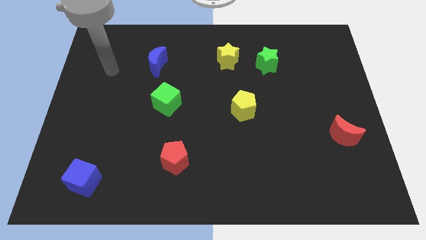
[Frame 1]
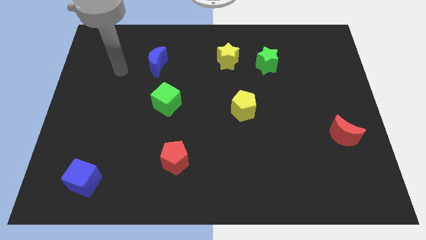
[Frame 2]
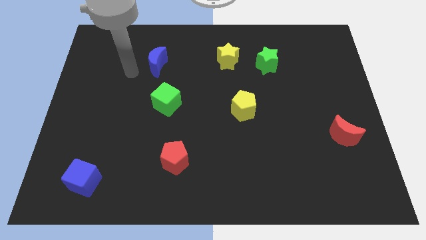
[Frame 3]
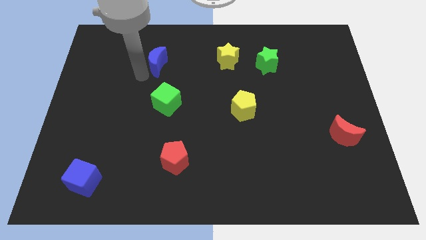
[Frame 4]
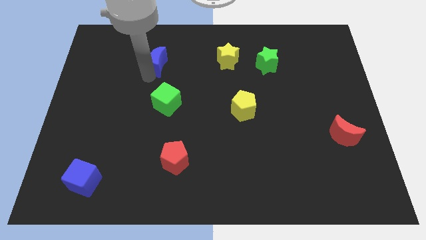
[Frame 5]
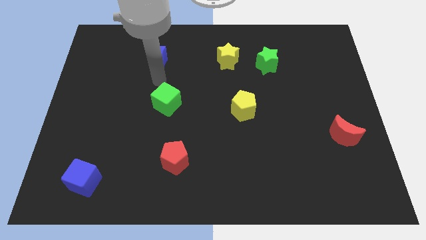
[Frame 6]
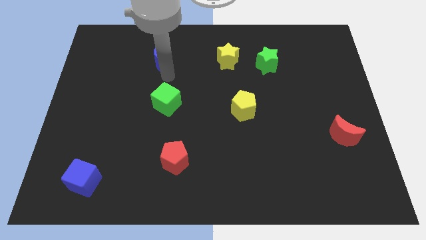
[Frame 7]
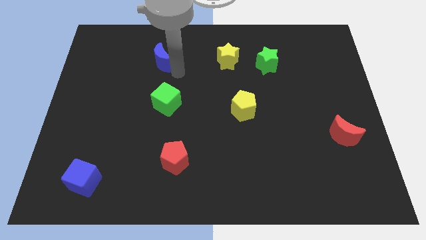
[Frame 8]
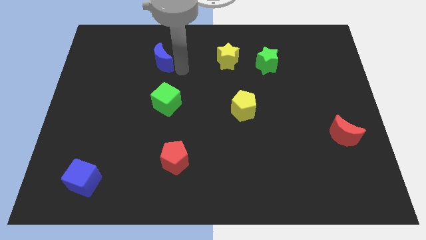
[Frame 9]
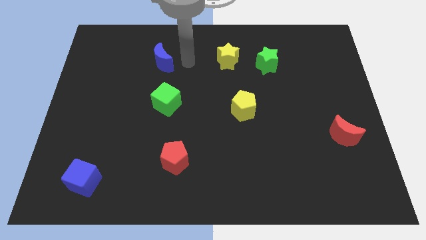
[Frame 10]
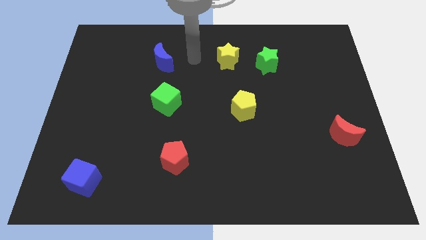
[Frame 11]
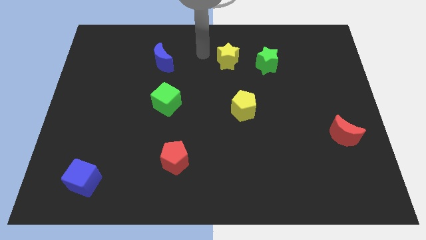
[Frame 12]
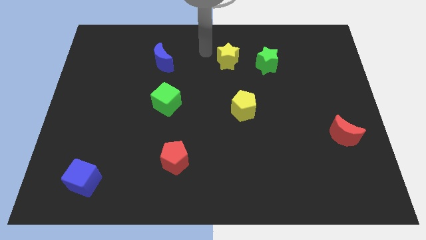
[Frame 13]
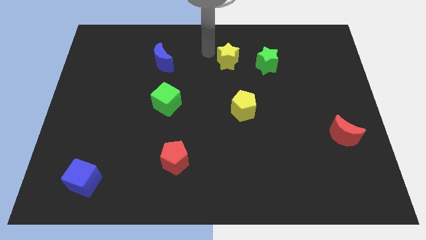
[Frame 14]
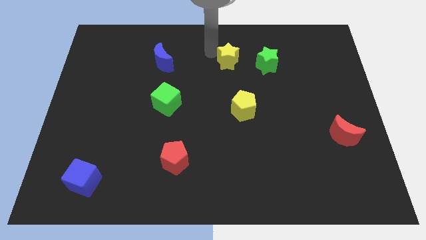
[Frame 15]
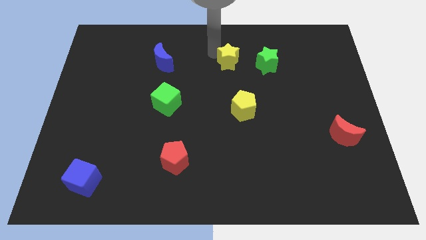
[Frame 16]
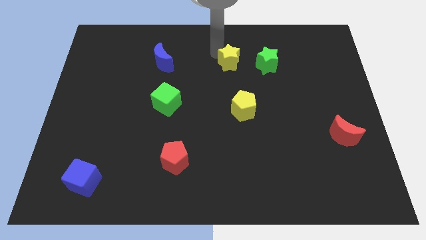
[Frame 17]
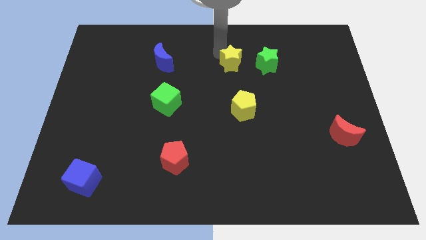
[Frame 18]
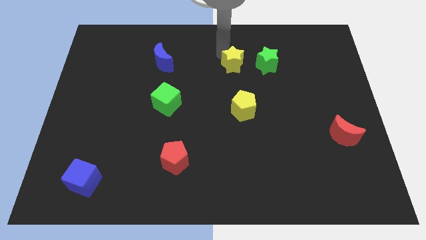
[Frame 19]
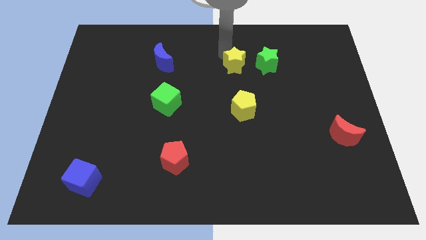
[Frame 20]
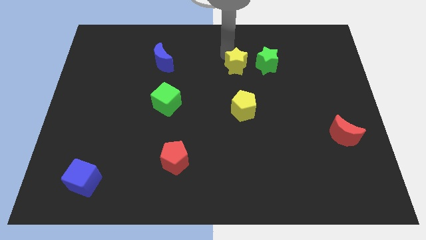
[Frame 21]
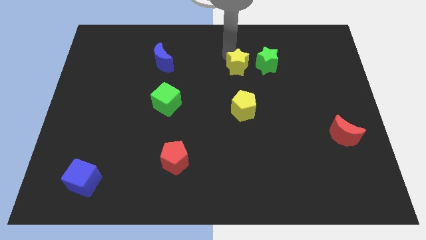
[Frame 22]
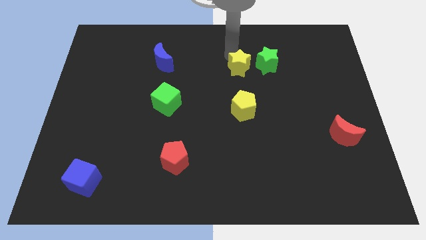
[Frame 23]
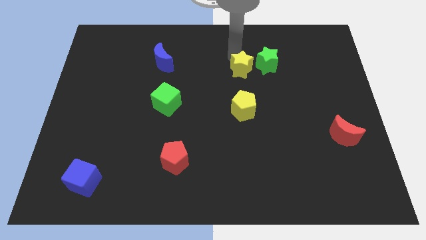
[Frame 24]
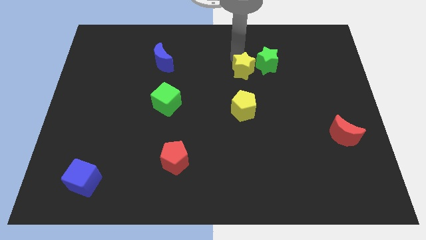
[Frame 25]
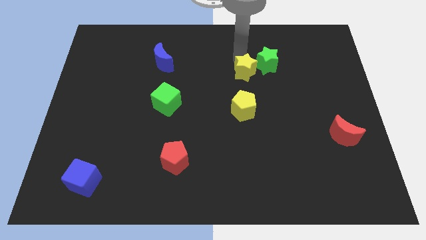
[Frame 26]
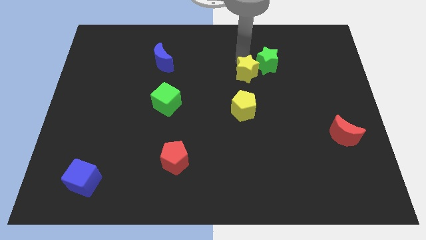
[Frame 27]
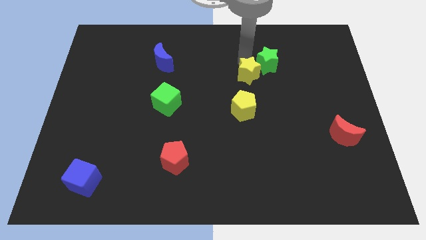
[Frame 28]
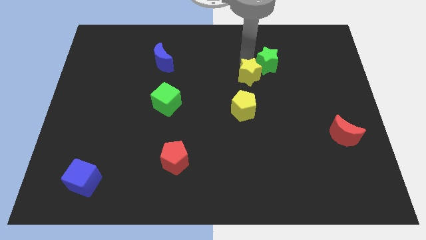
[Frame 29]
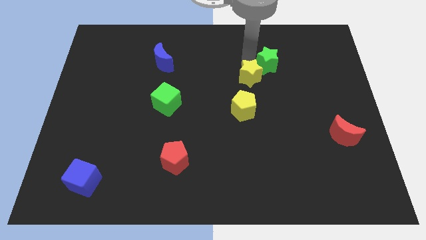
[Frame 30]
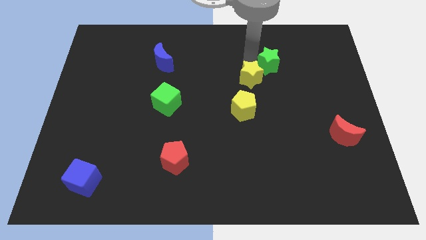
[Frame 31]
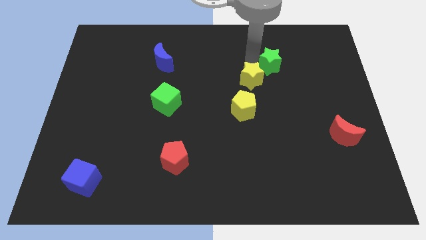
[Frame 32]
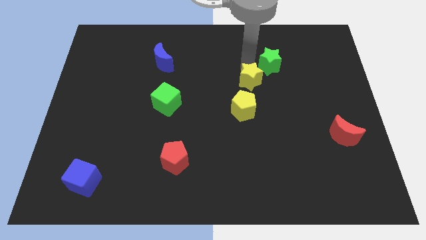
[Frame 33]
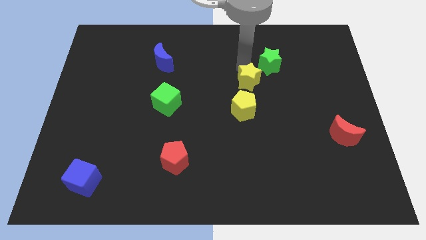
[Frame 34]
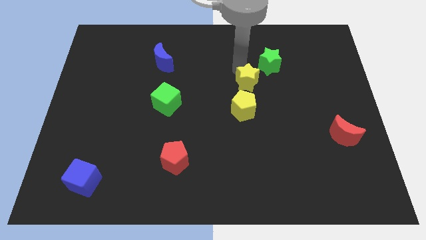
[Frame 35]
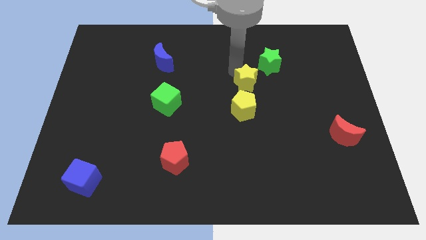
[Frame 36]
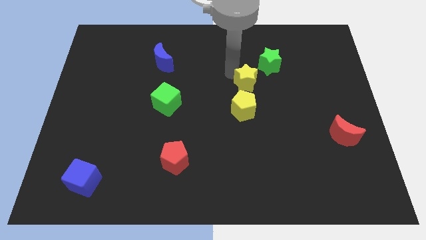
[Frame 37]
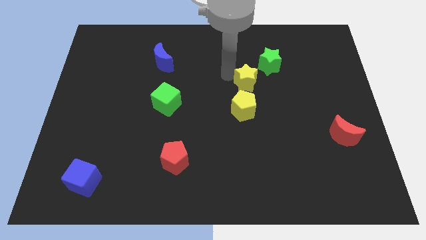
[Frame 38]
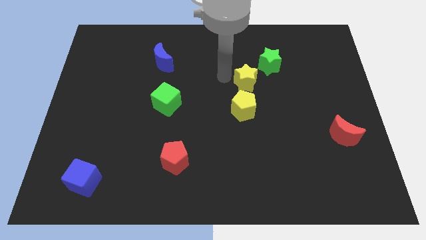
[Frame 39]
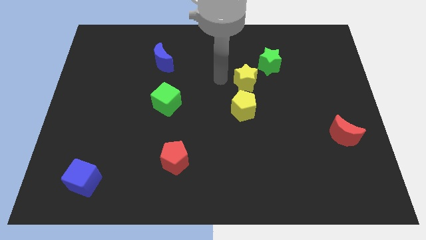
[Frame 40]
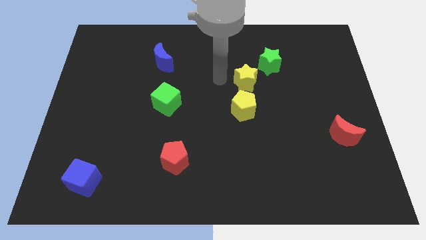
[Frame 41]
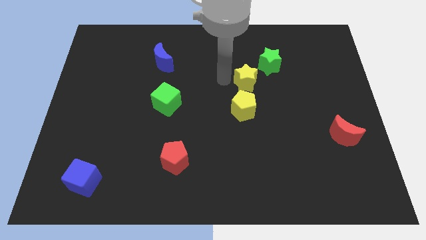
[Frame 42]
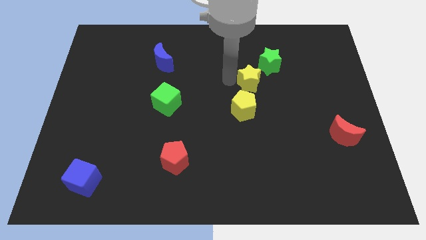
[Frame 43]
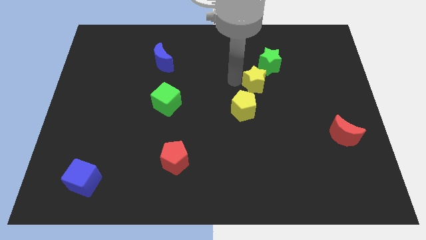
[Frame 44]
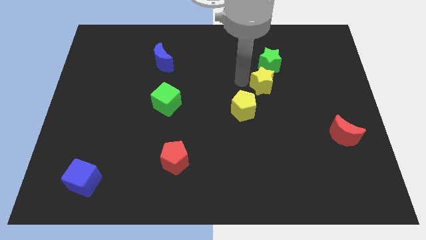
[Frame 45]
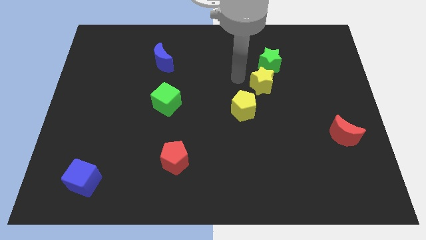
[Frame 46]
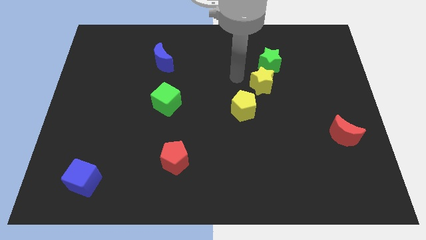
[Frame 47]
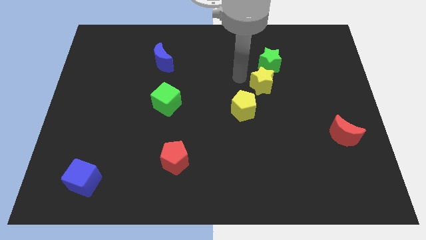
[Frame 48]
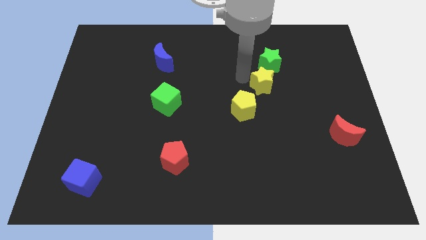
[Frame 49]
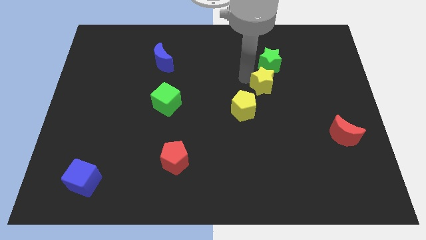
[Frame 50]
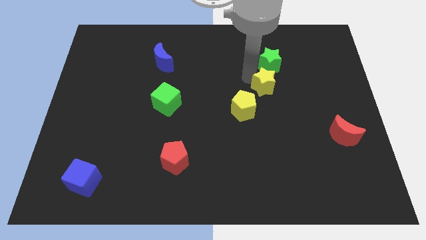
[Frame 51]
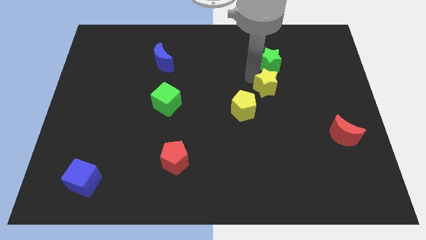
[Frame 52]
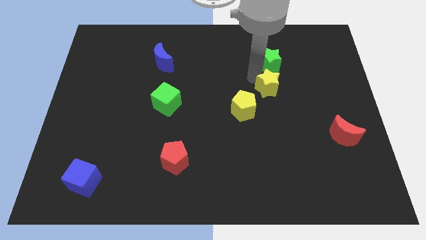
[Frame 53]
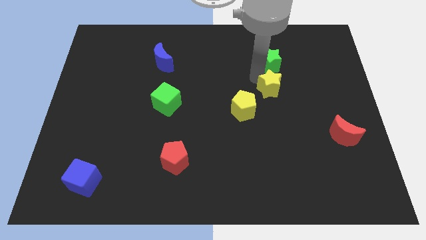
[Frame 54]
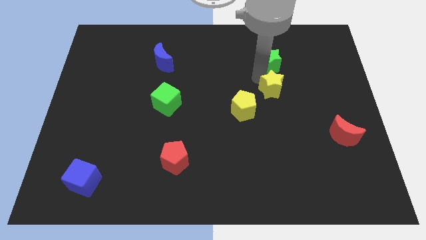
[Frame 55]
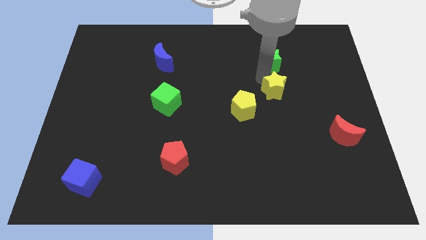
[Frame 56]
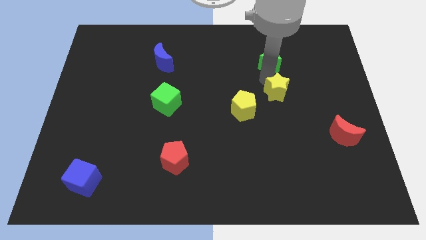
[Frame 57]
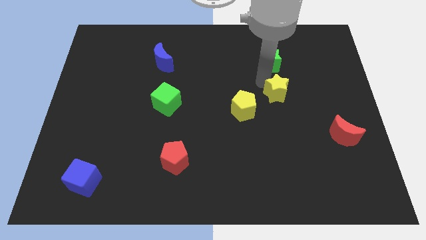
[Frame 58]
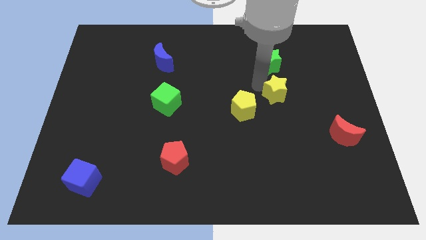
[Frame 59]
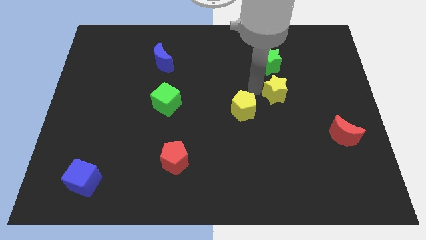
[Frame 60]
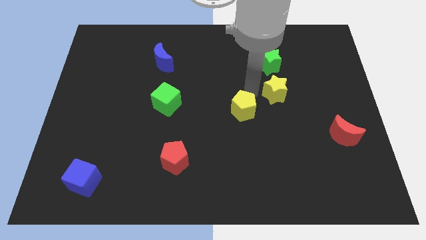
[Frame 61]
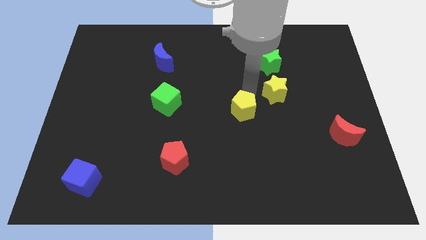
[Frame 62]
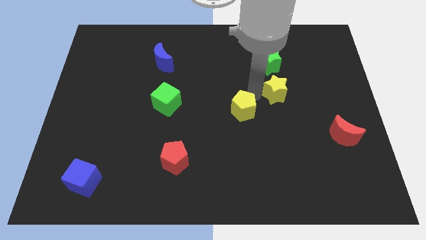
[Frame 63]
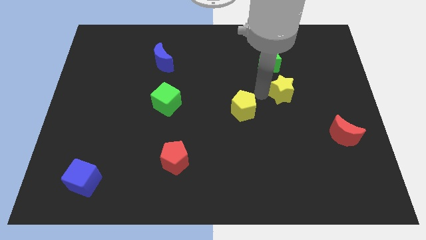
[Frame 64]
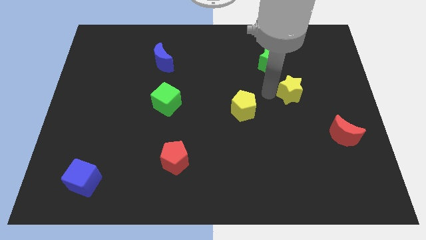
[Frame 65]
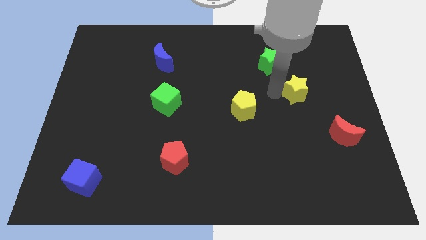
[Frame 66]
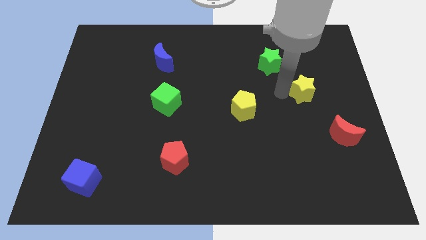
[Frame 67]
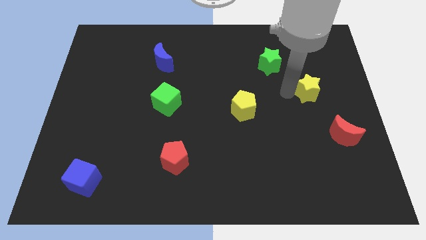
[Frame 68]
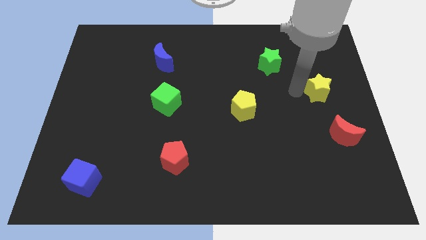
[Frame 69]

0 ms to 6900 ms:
put the yellow star to the right side
